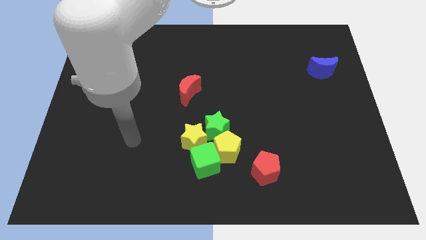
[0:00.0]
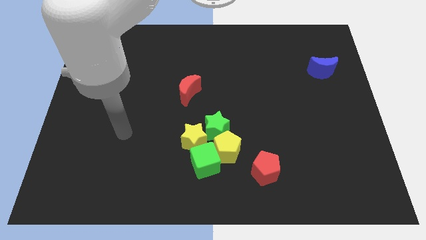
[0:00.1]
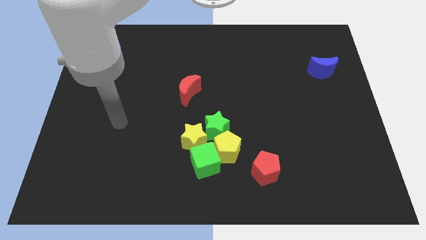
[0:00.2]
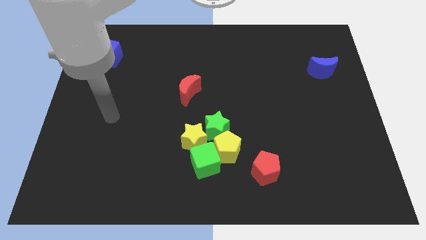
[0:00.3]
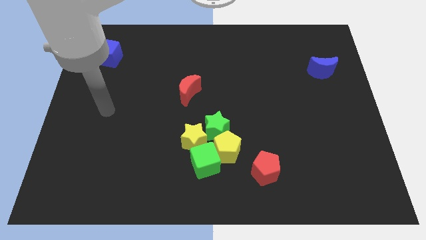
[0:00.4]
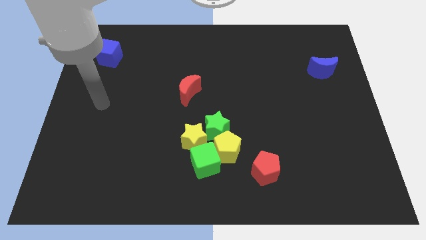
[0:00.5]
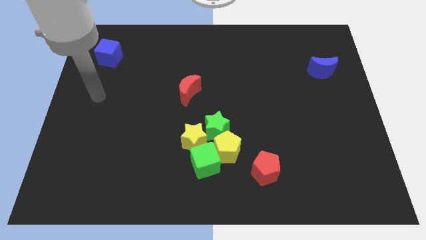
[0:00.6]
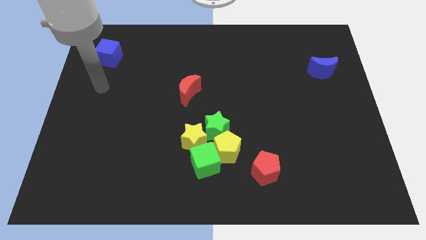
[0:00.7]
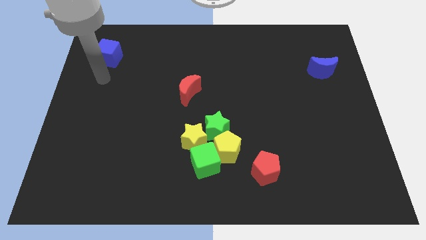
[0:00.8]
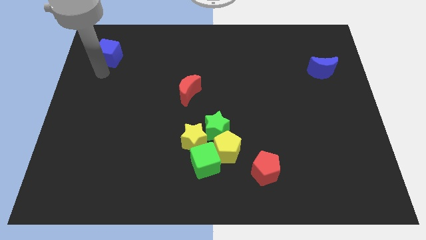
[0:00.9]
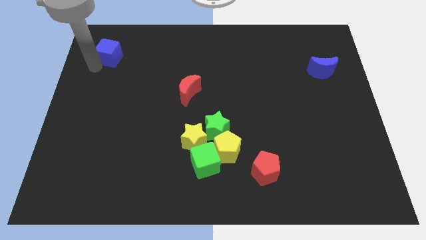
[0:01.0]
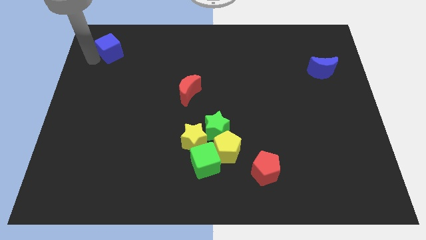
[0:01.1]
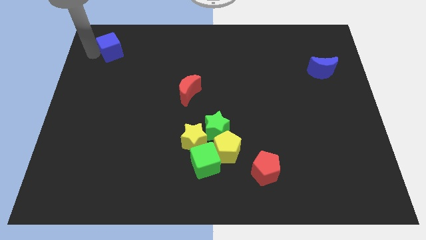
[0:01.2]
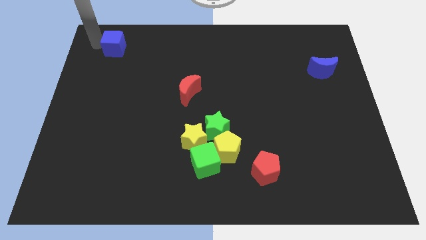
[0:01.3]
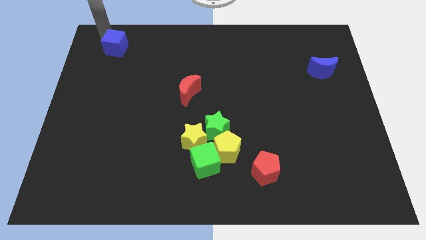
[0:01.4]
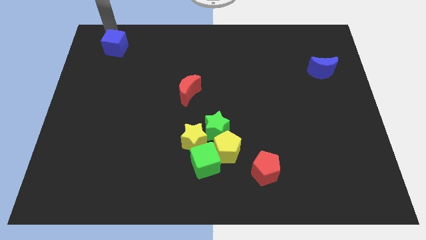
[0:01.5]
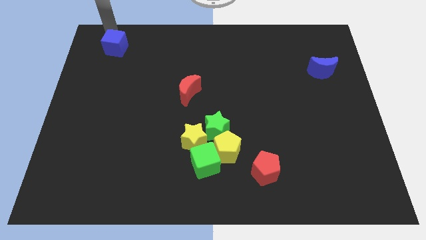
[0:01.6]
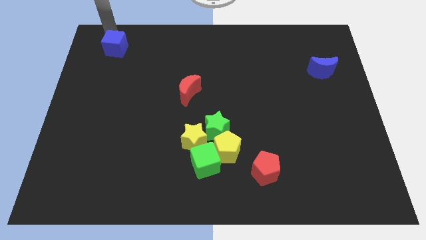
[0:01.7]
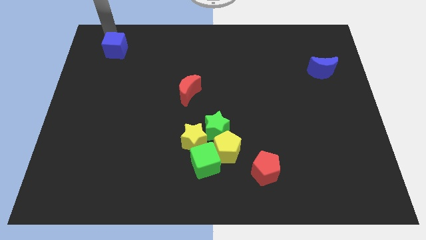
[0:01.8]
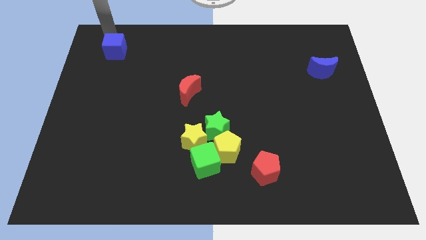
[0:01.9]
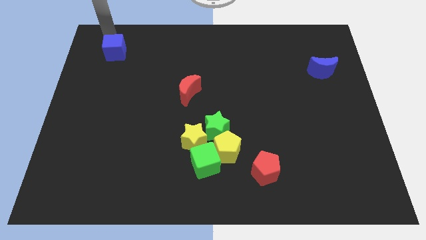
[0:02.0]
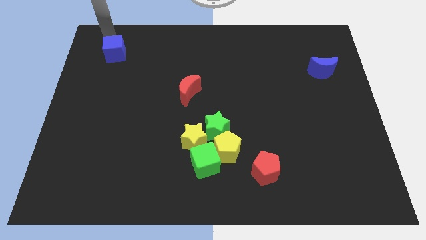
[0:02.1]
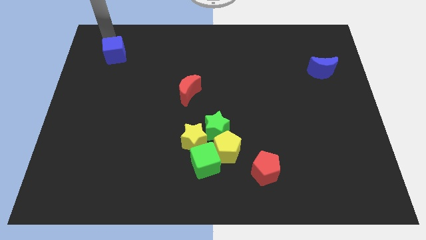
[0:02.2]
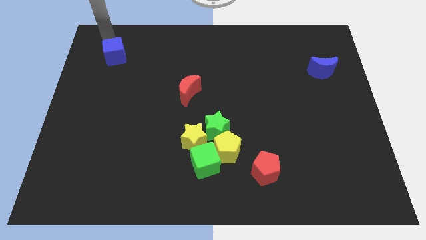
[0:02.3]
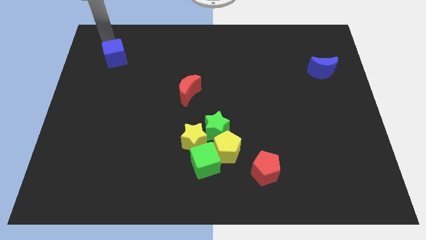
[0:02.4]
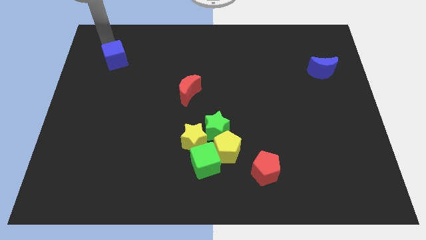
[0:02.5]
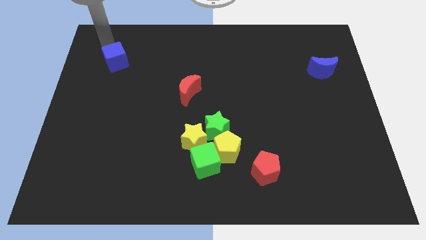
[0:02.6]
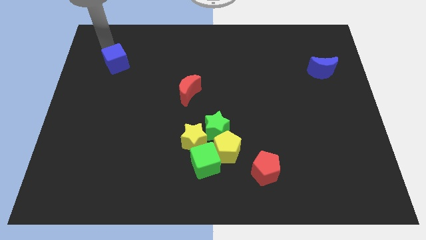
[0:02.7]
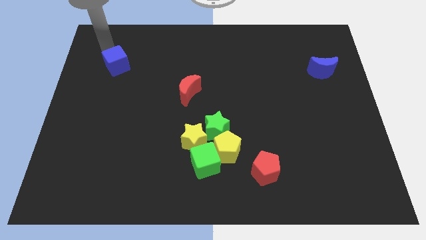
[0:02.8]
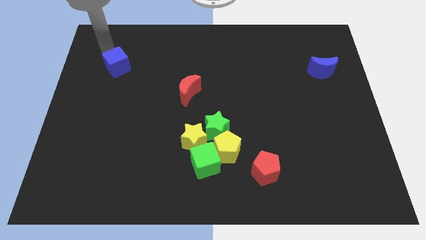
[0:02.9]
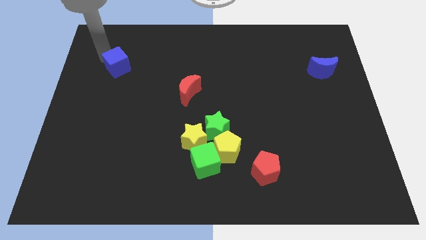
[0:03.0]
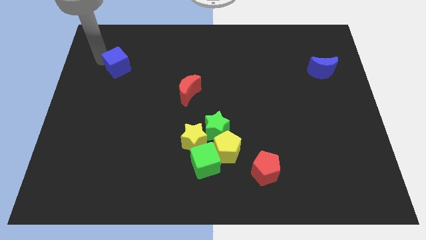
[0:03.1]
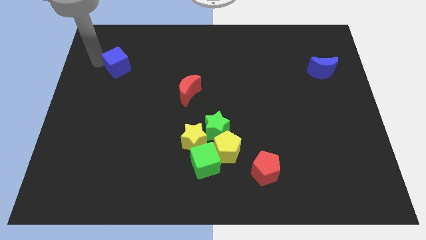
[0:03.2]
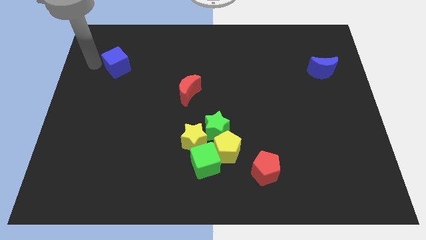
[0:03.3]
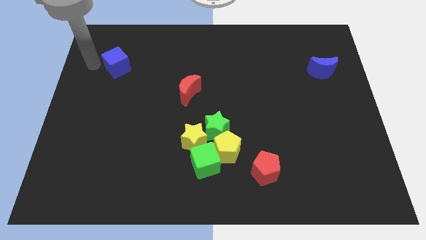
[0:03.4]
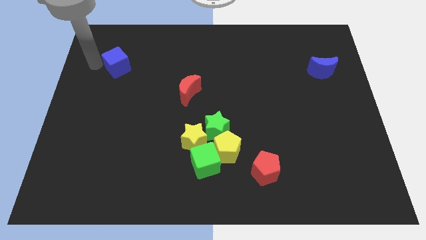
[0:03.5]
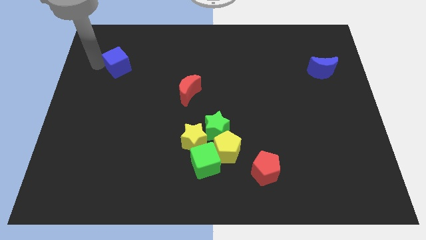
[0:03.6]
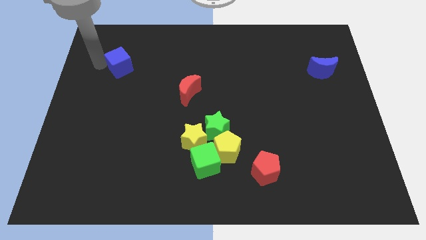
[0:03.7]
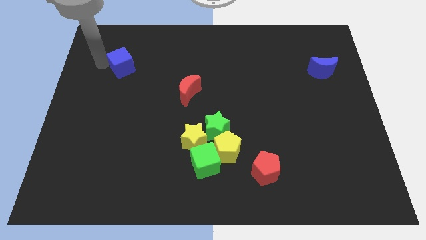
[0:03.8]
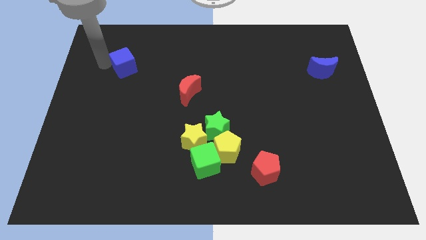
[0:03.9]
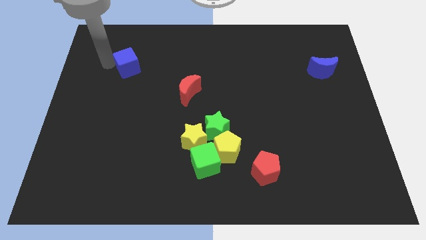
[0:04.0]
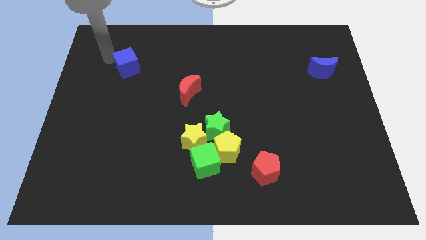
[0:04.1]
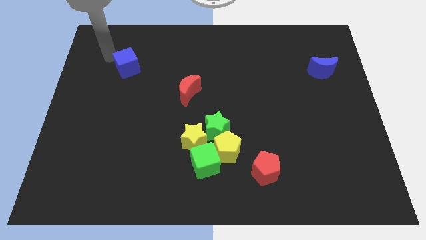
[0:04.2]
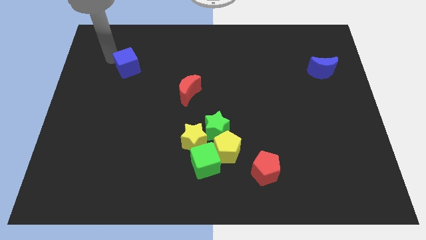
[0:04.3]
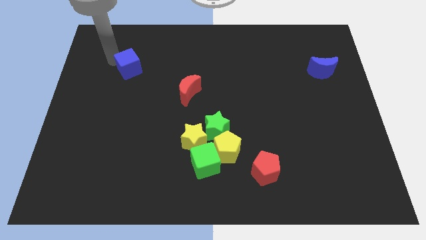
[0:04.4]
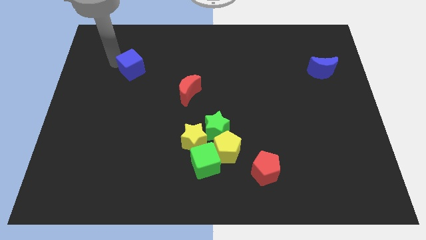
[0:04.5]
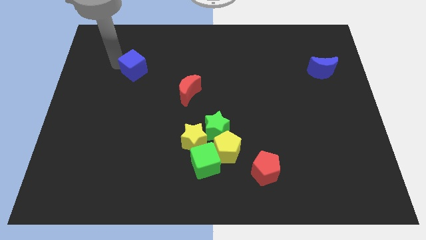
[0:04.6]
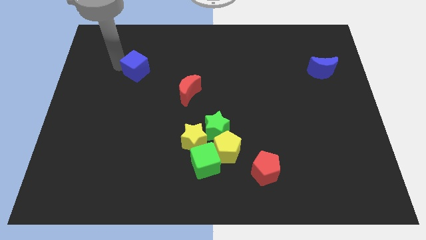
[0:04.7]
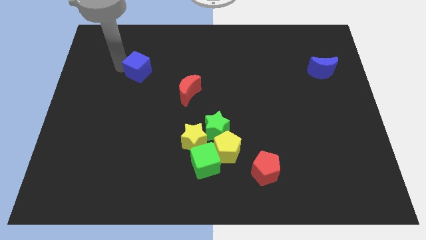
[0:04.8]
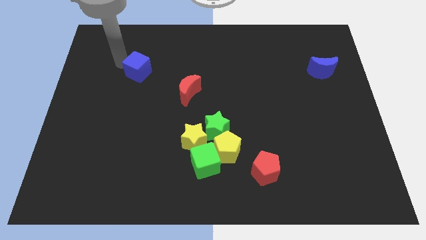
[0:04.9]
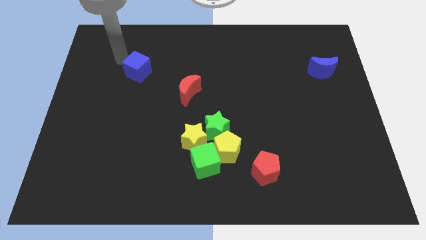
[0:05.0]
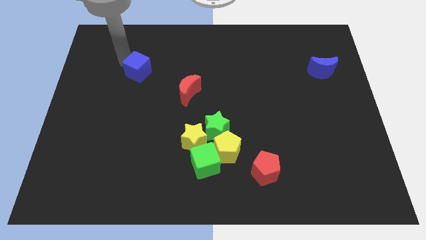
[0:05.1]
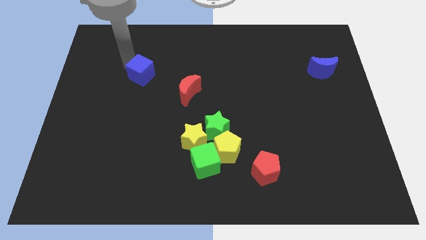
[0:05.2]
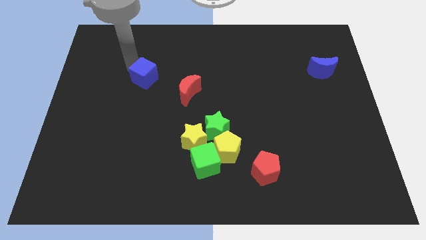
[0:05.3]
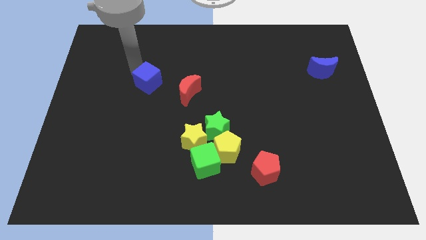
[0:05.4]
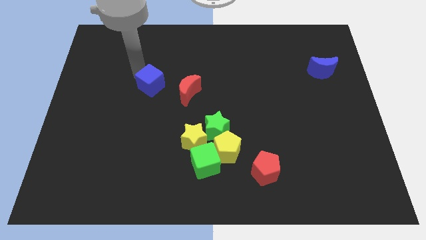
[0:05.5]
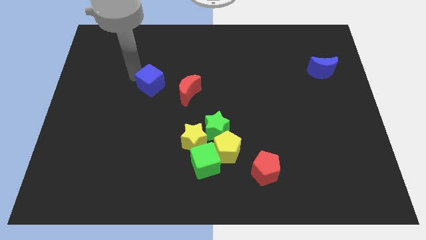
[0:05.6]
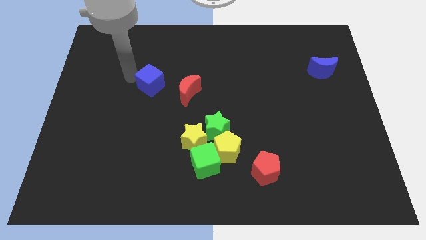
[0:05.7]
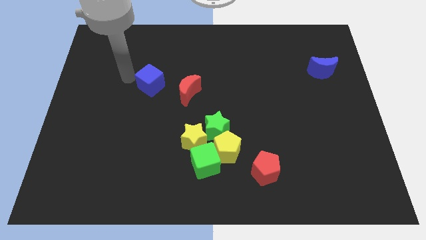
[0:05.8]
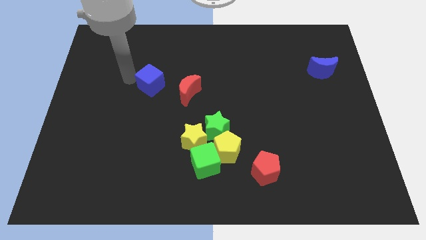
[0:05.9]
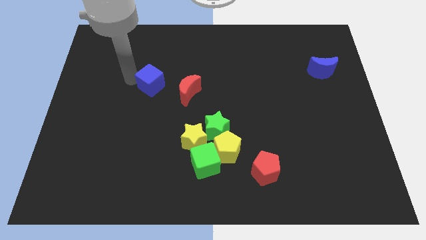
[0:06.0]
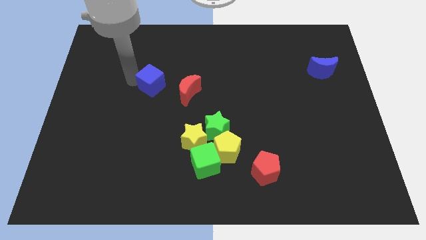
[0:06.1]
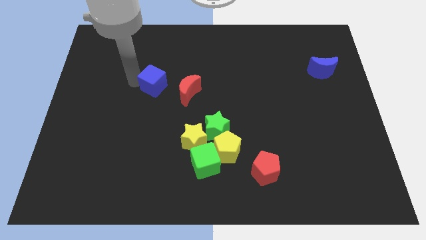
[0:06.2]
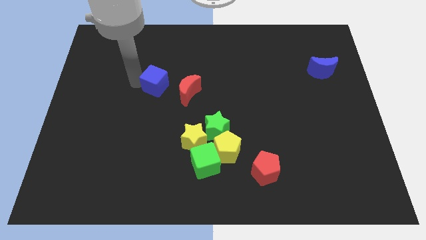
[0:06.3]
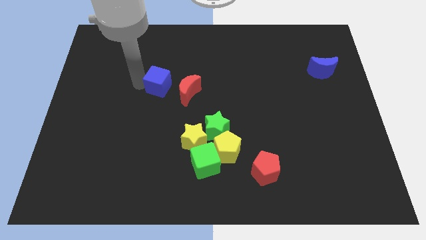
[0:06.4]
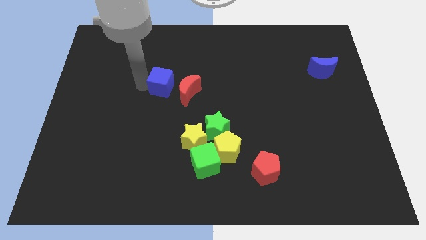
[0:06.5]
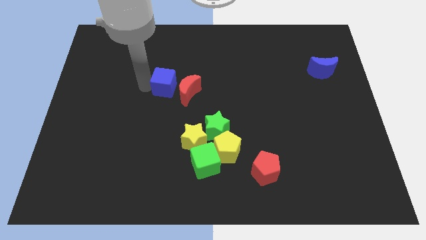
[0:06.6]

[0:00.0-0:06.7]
slide the blue cube next to the red moon

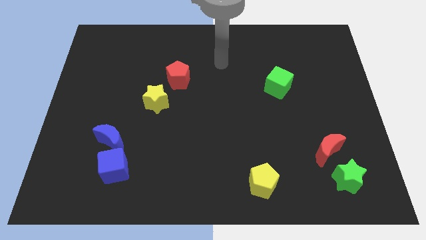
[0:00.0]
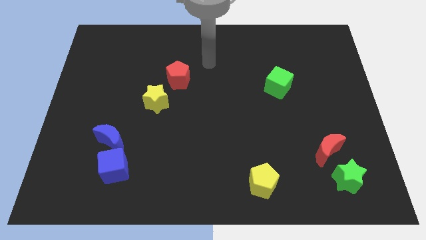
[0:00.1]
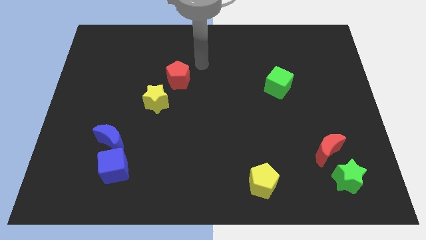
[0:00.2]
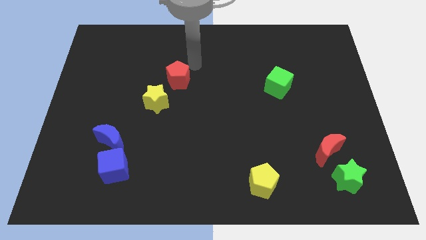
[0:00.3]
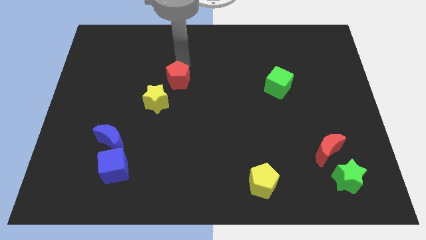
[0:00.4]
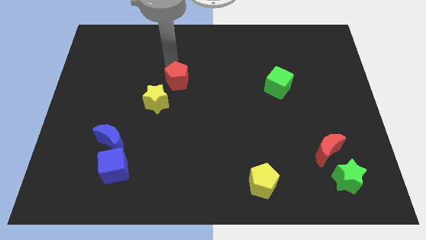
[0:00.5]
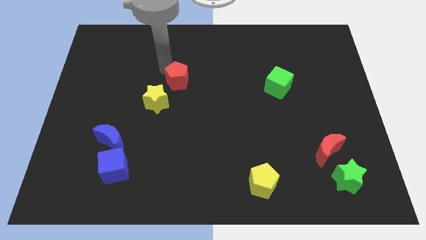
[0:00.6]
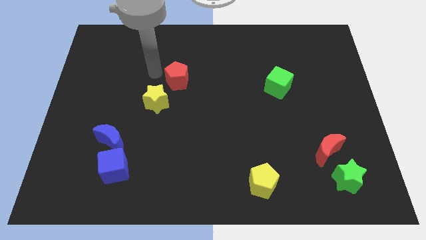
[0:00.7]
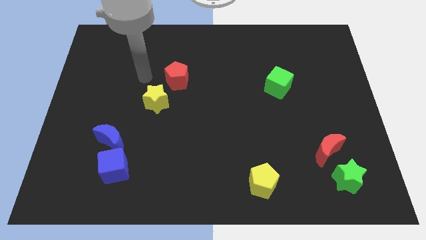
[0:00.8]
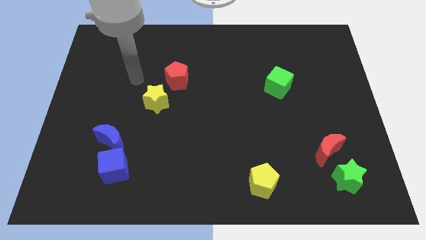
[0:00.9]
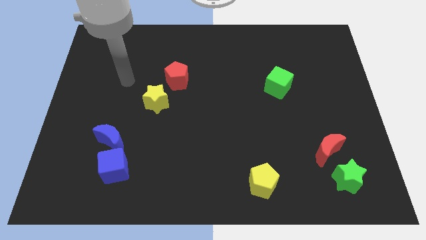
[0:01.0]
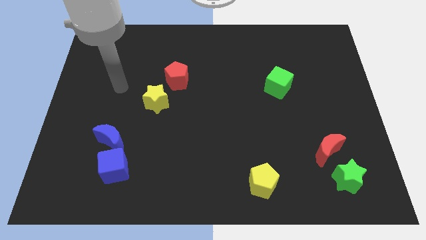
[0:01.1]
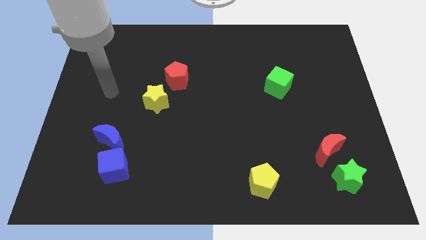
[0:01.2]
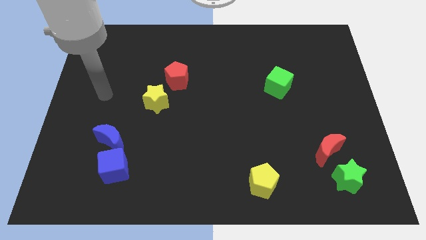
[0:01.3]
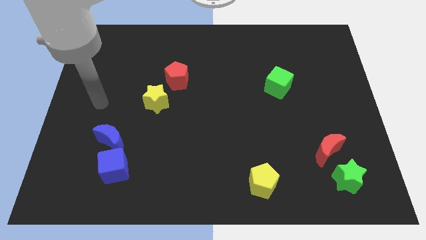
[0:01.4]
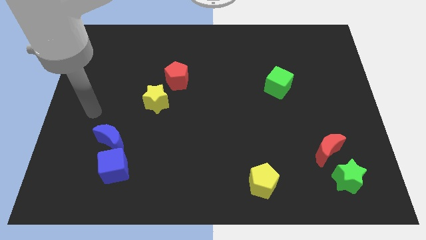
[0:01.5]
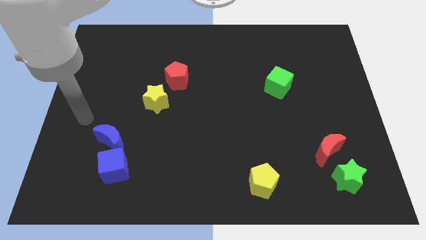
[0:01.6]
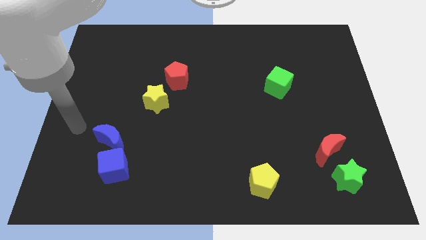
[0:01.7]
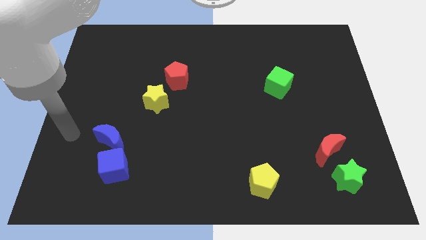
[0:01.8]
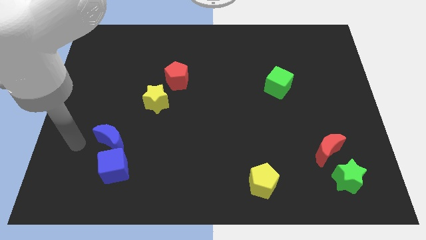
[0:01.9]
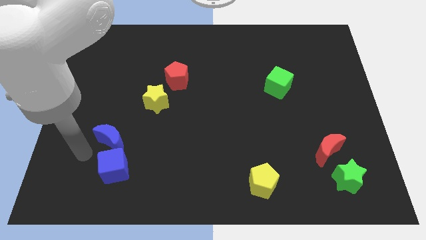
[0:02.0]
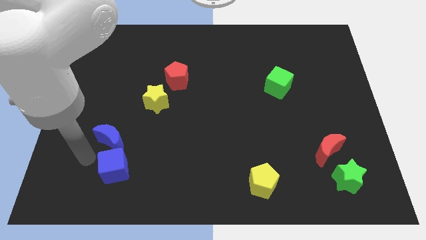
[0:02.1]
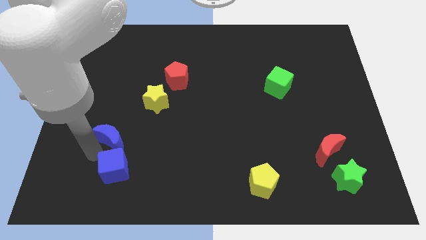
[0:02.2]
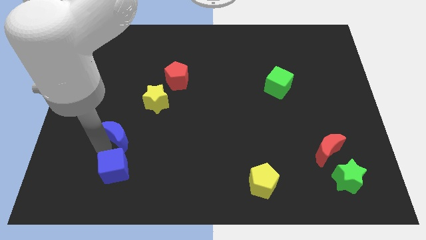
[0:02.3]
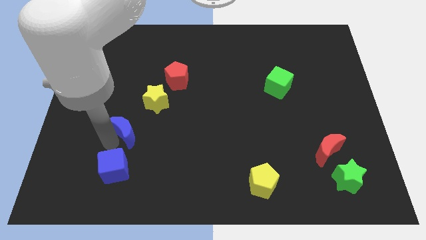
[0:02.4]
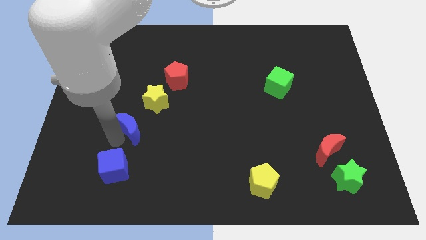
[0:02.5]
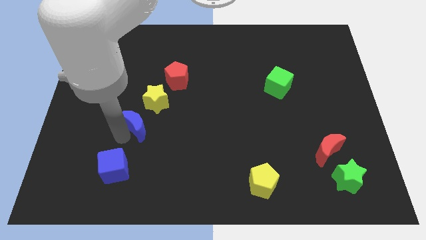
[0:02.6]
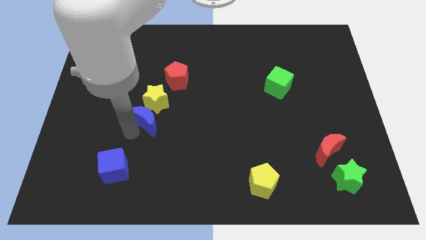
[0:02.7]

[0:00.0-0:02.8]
put the blue moon towards the yellow star
